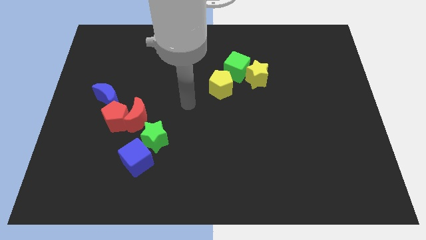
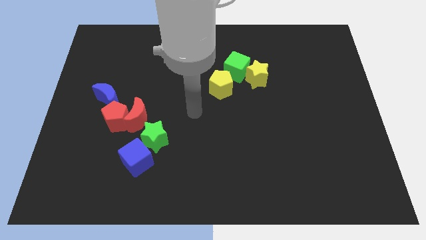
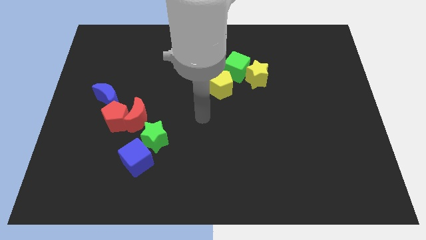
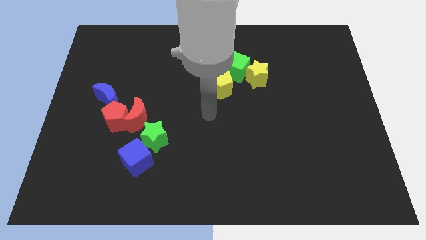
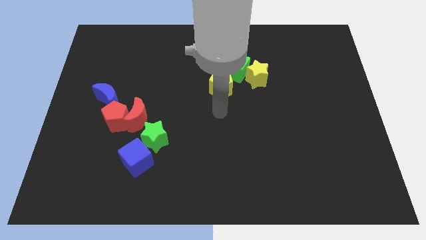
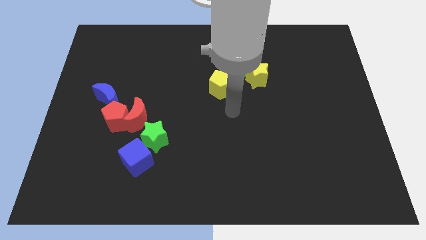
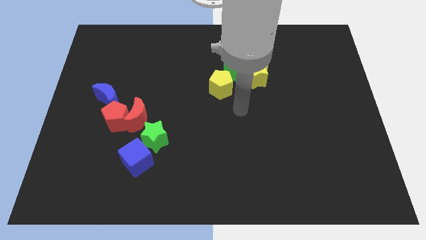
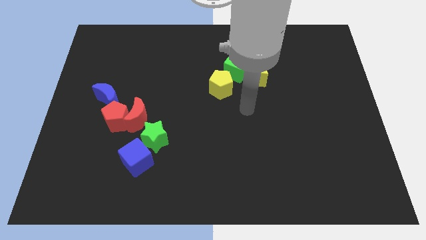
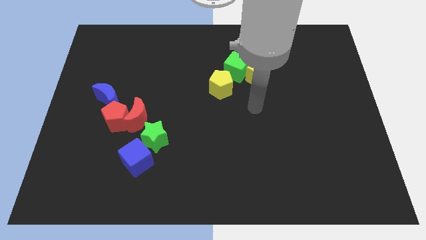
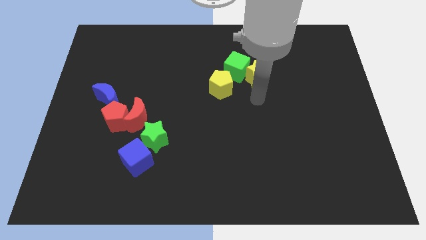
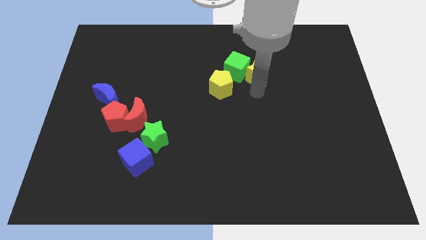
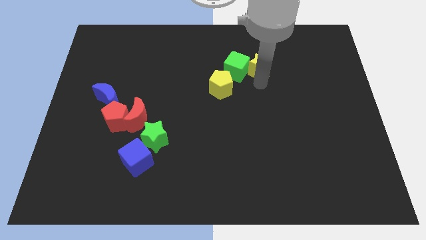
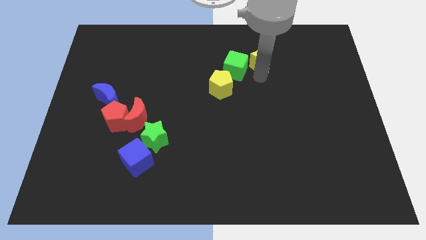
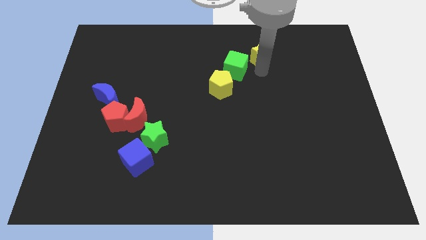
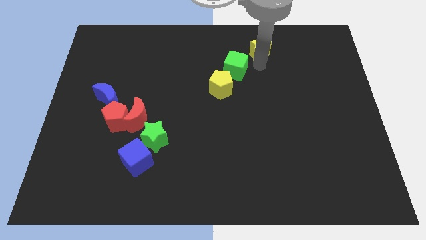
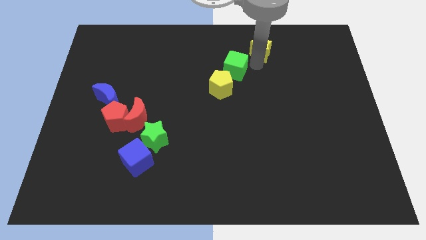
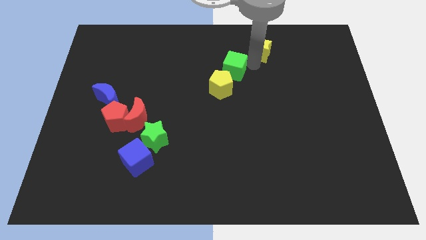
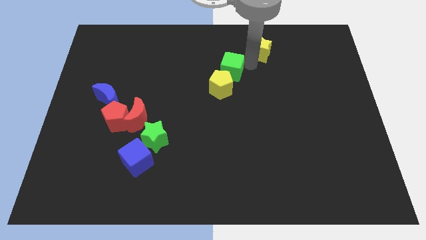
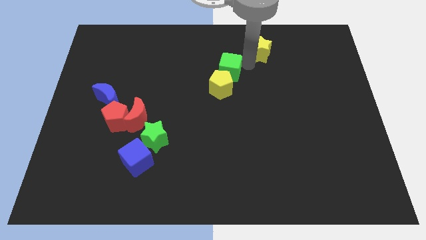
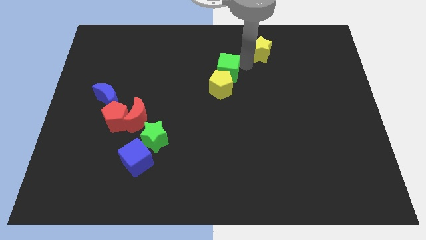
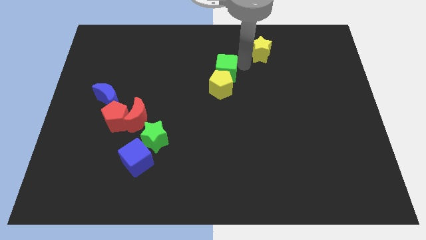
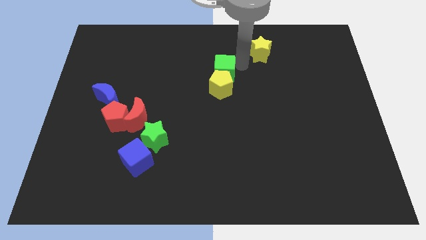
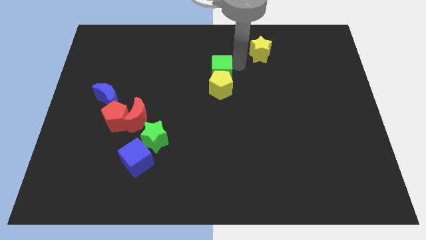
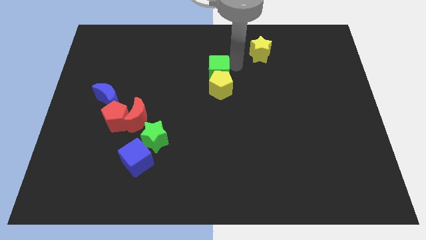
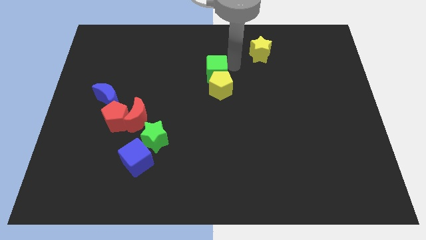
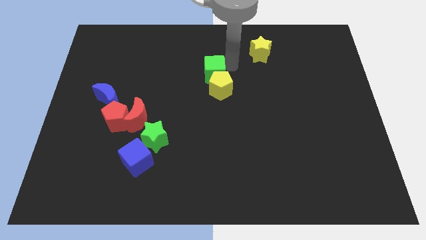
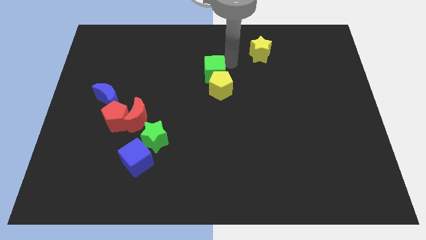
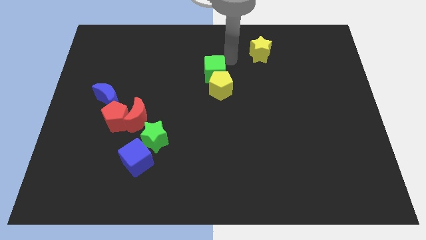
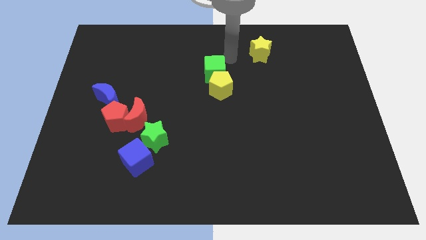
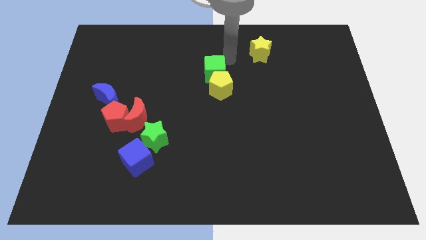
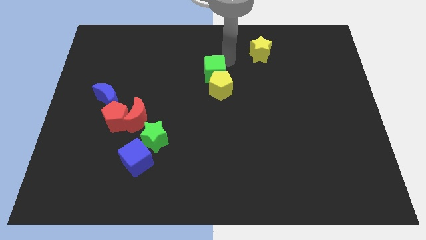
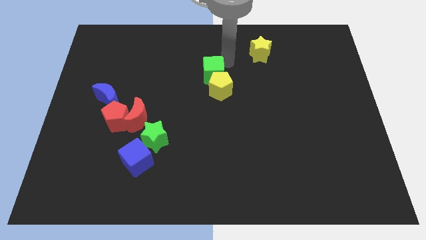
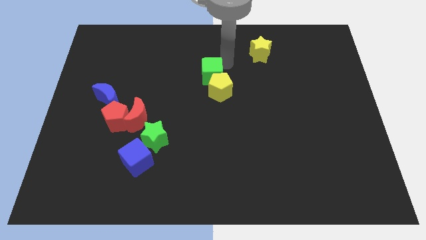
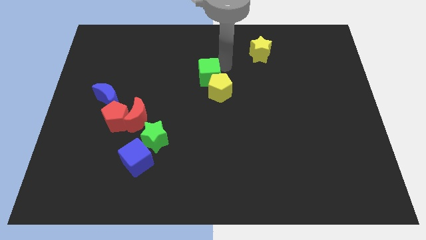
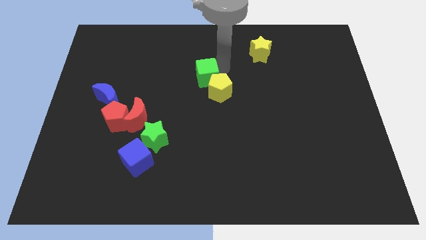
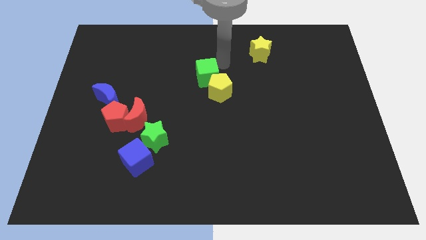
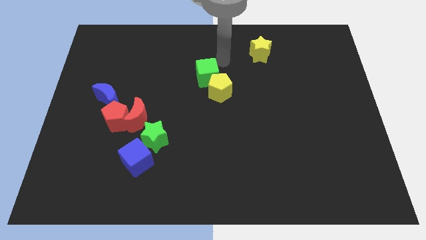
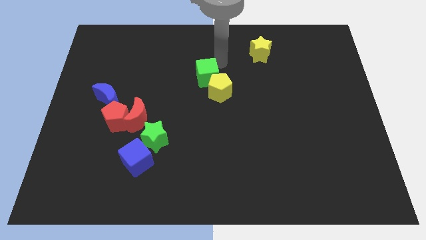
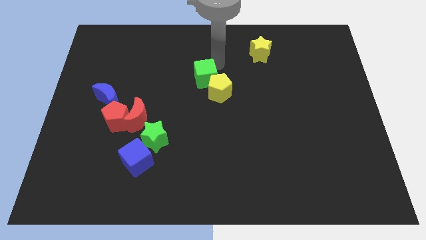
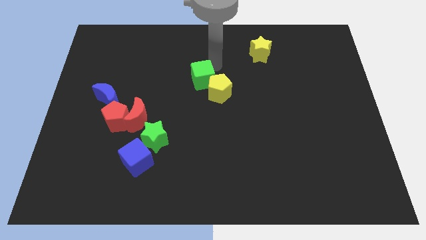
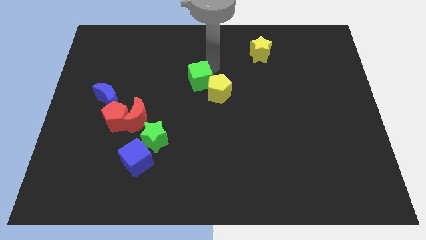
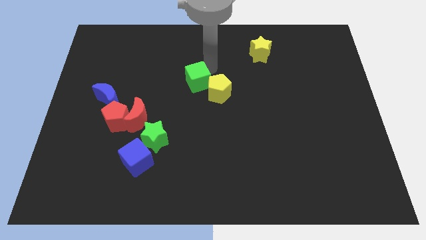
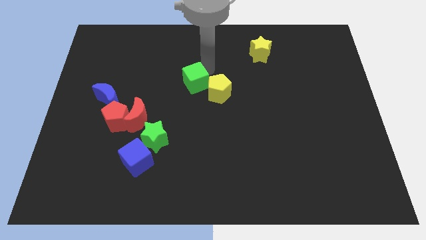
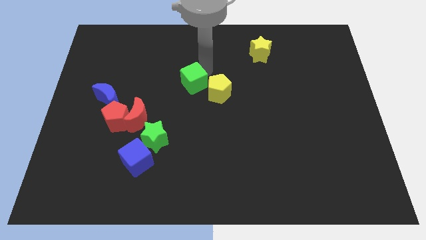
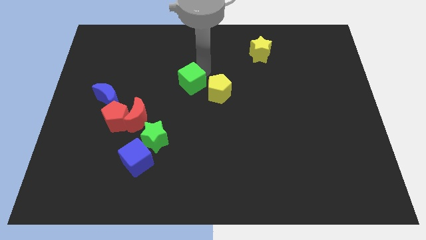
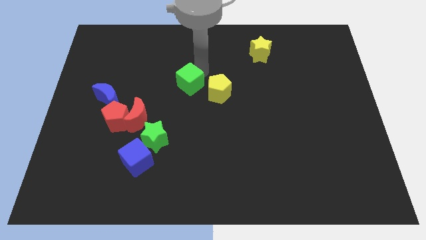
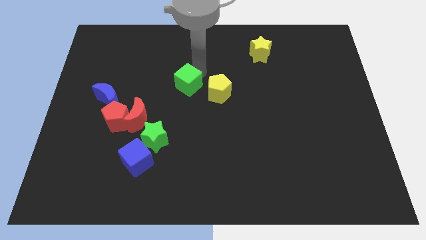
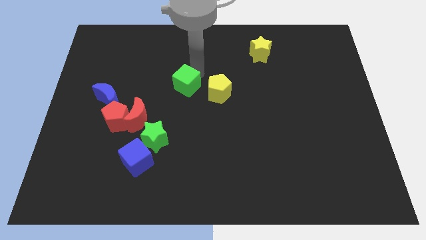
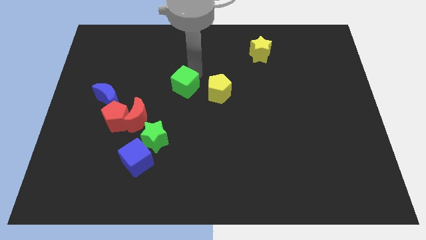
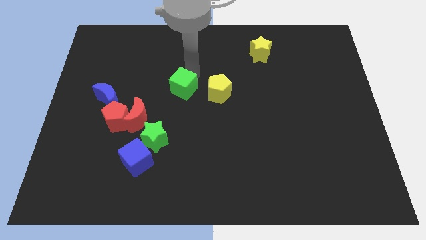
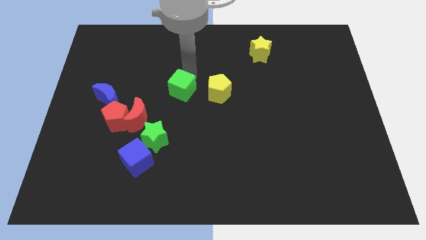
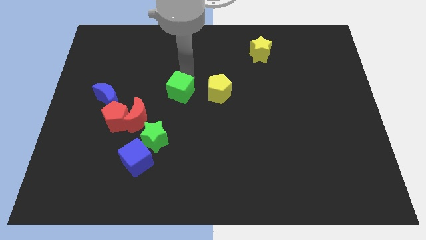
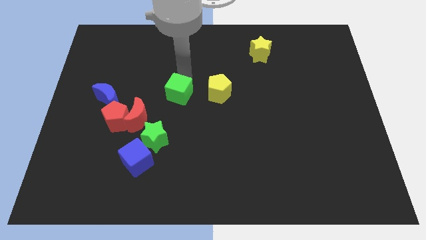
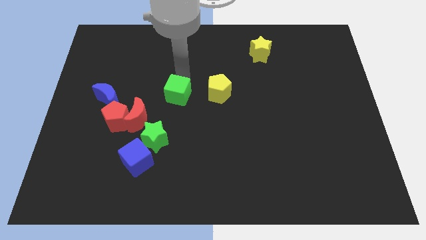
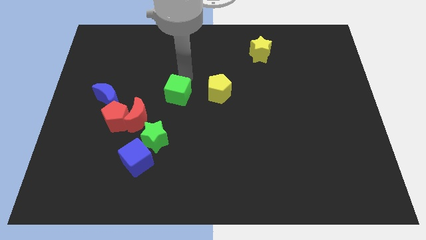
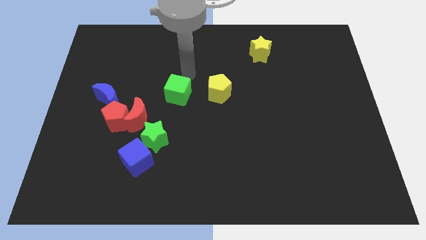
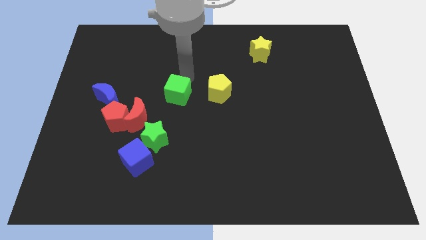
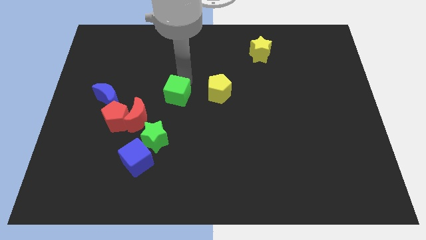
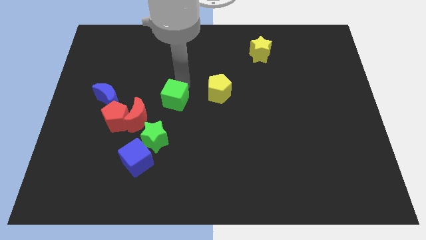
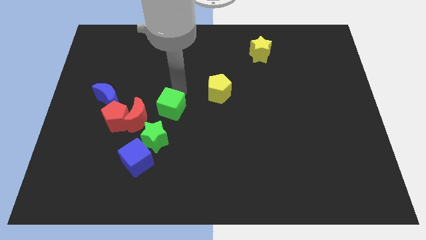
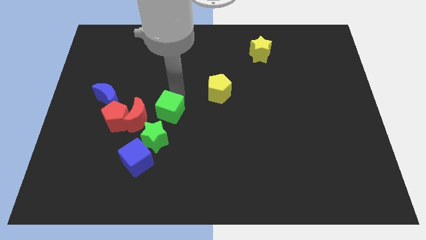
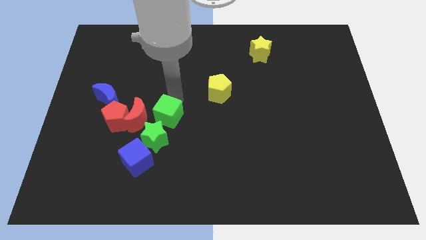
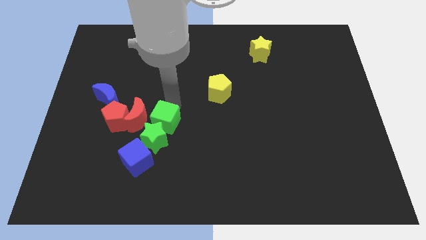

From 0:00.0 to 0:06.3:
slide the green cube to the green star

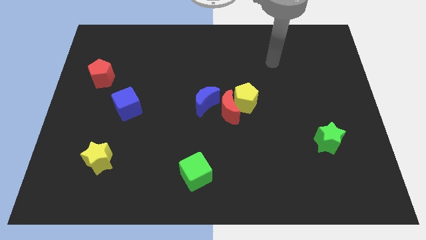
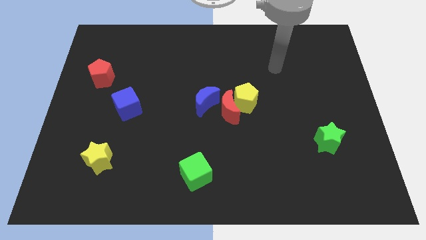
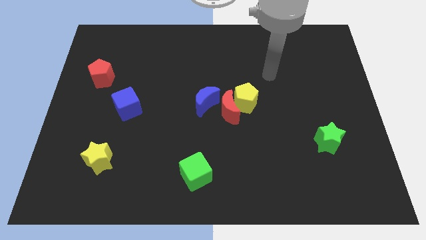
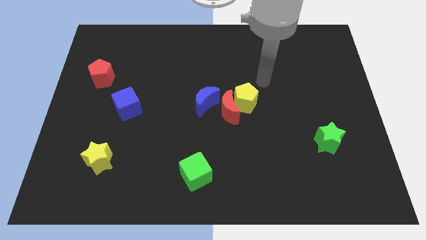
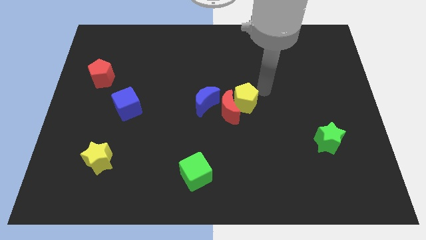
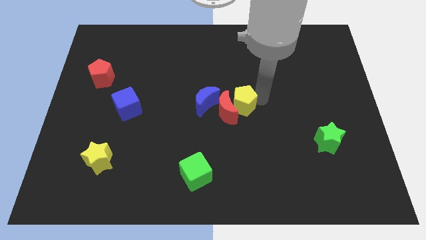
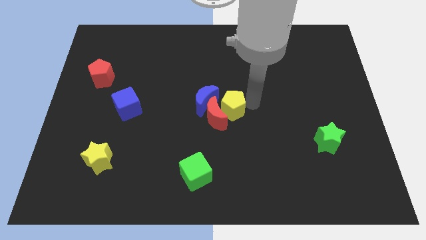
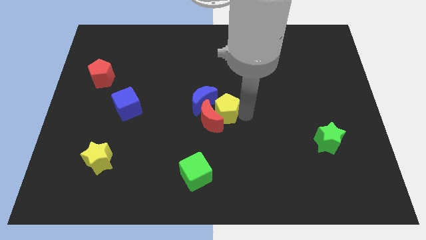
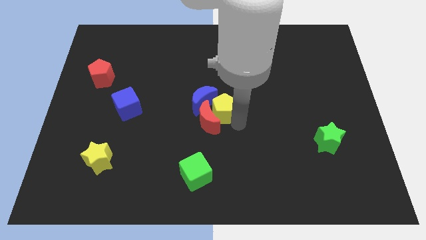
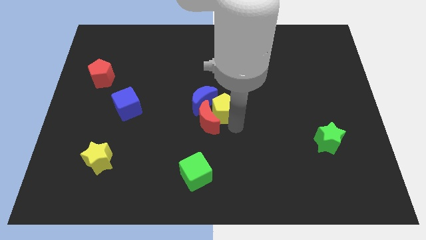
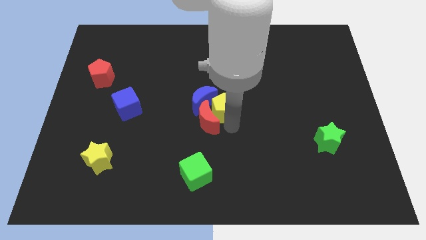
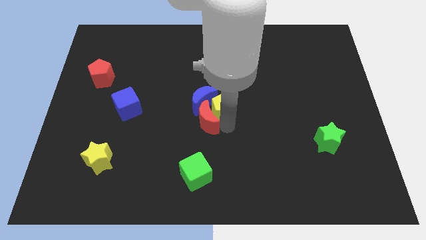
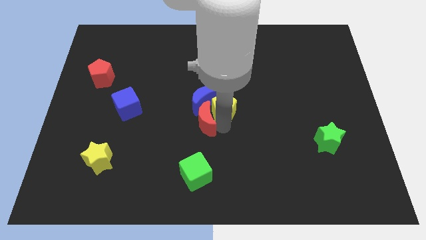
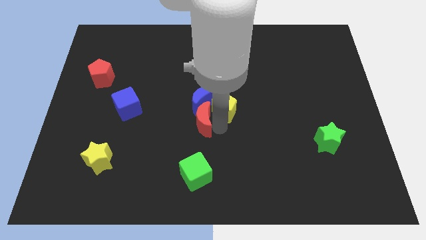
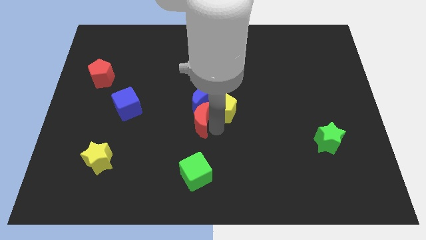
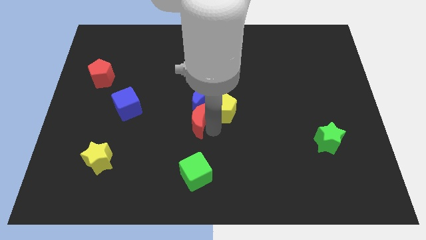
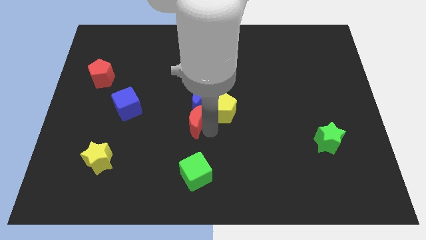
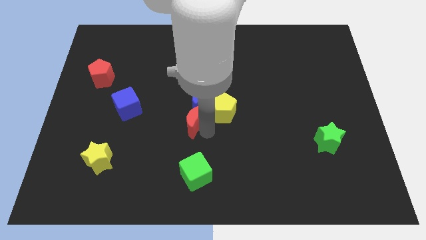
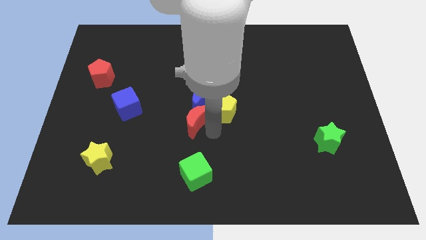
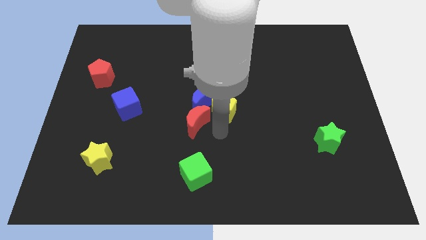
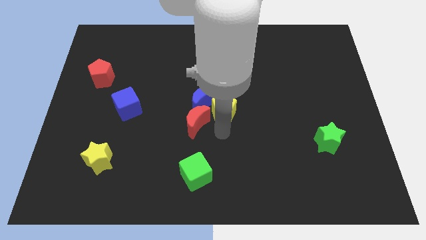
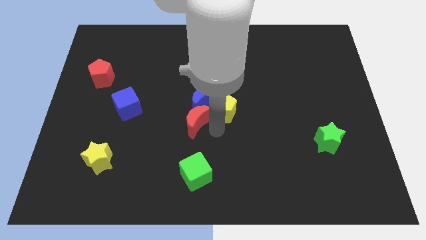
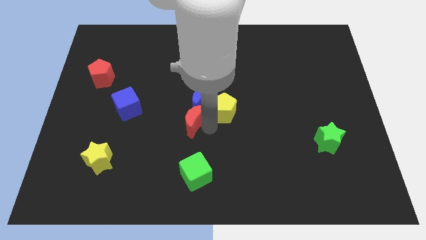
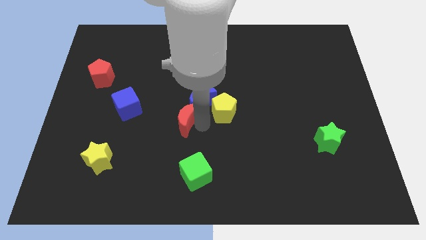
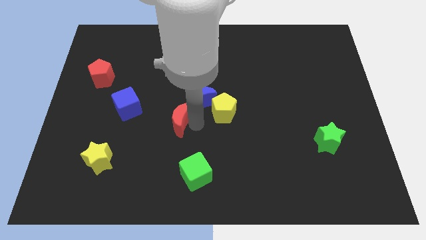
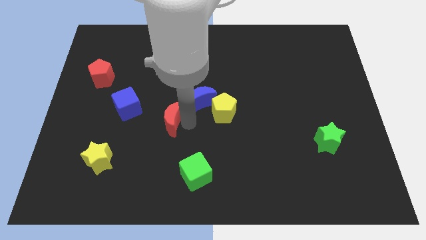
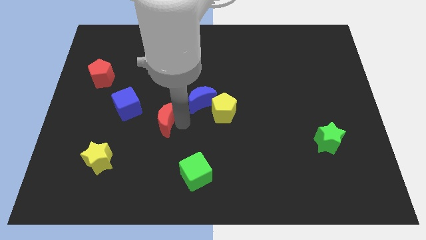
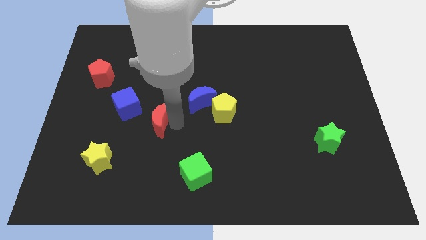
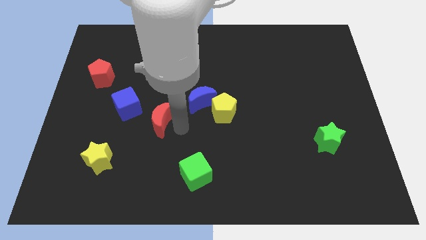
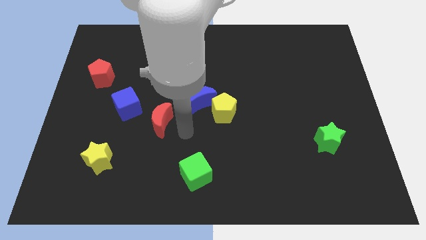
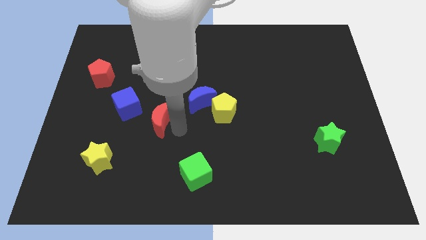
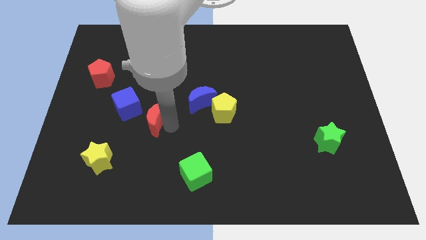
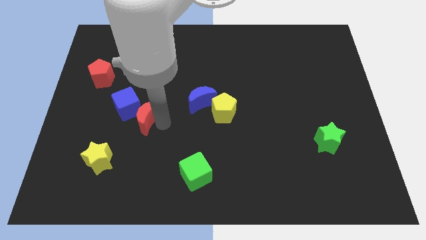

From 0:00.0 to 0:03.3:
slide the red moon to the blue cube
